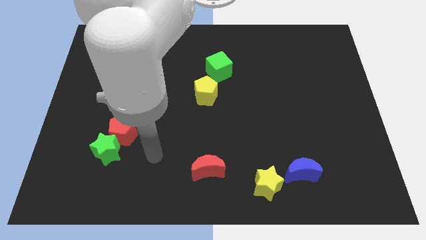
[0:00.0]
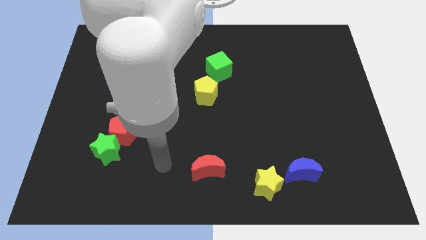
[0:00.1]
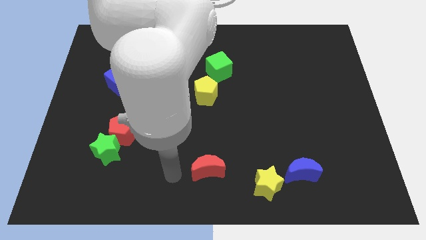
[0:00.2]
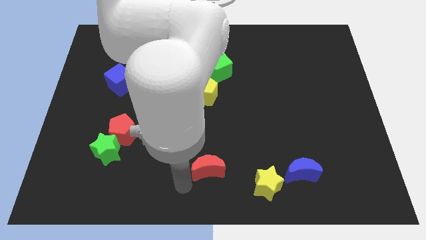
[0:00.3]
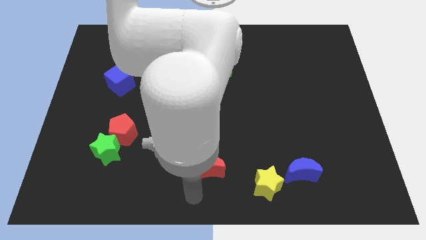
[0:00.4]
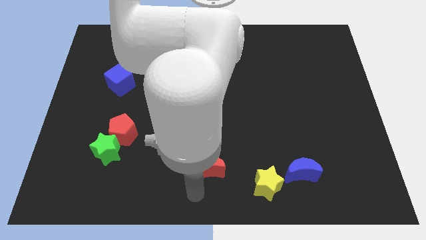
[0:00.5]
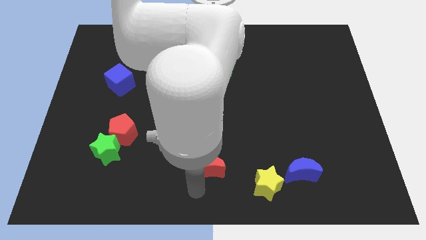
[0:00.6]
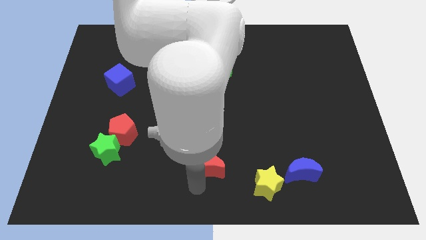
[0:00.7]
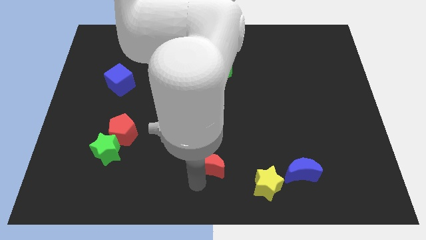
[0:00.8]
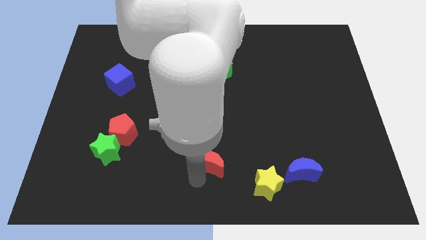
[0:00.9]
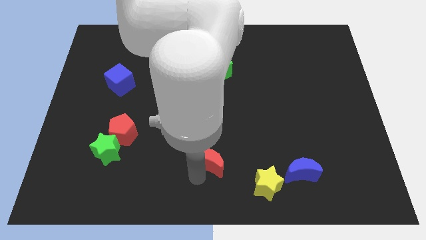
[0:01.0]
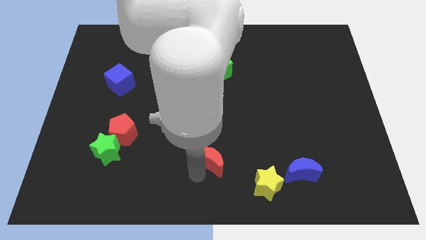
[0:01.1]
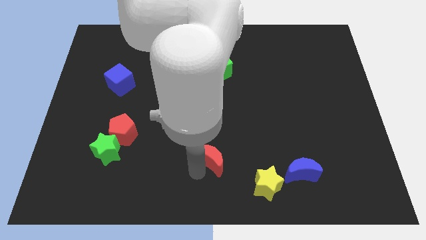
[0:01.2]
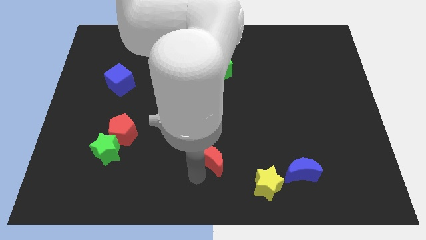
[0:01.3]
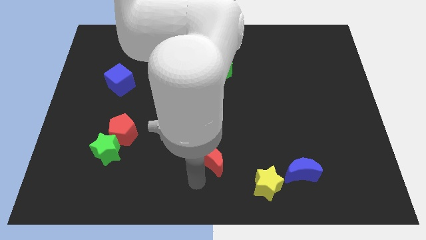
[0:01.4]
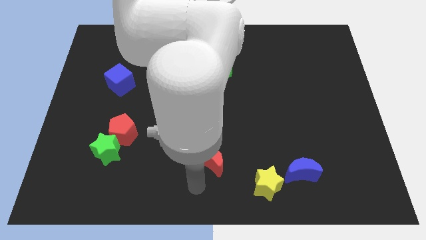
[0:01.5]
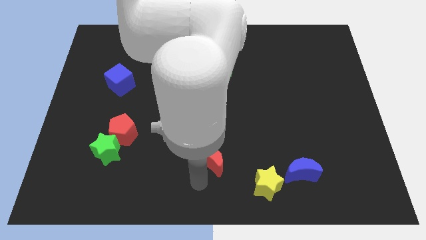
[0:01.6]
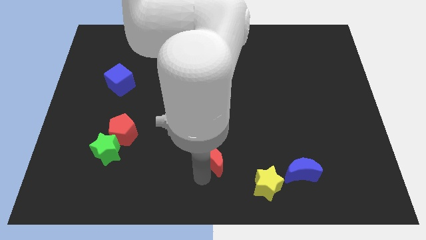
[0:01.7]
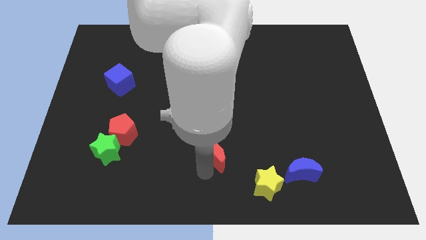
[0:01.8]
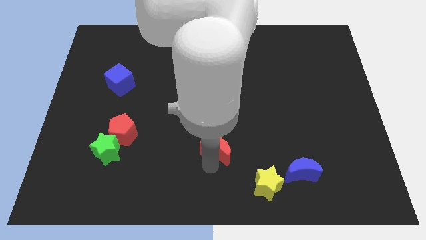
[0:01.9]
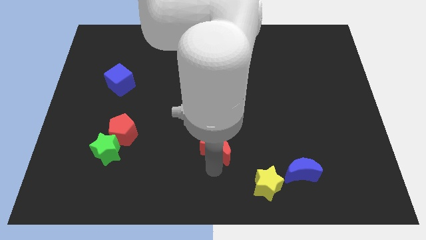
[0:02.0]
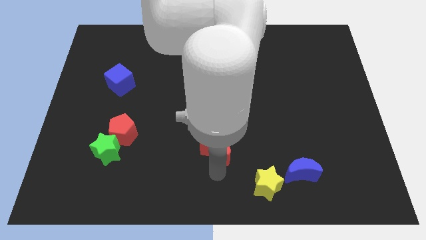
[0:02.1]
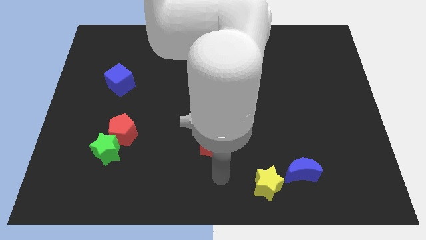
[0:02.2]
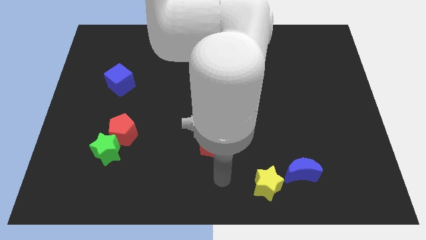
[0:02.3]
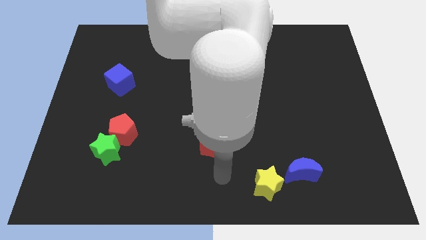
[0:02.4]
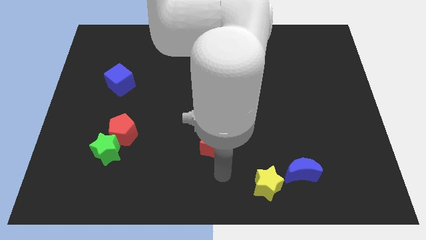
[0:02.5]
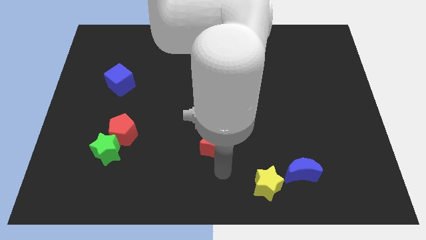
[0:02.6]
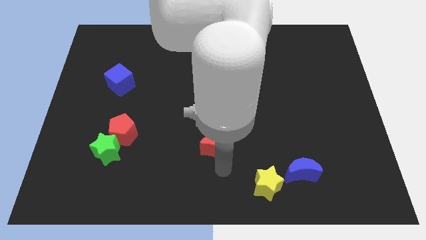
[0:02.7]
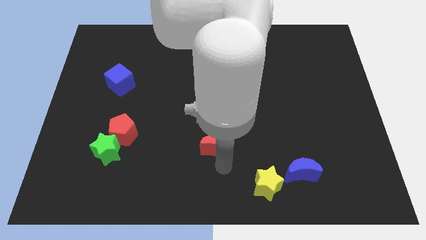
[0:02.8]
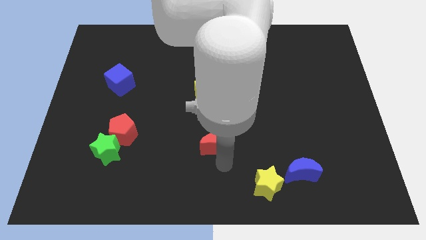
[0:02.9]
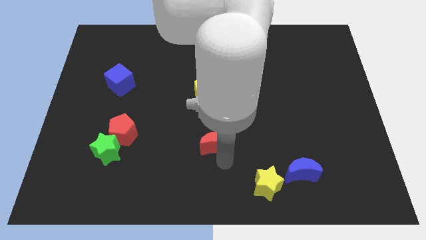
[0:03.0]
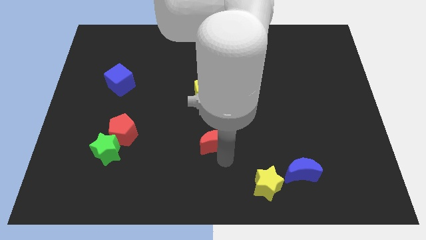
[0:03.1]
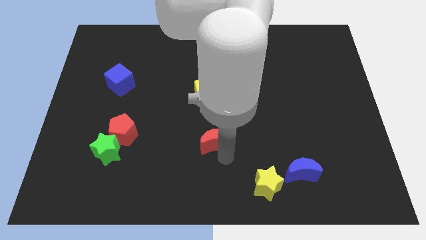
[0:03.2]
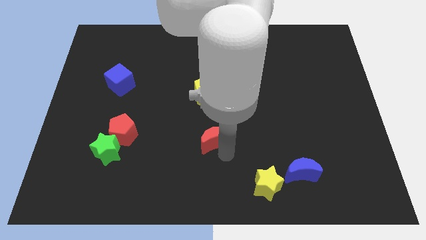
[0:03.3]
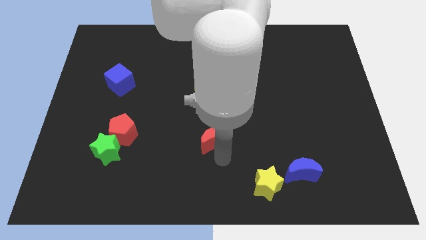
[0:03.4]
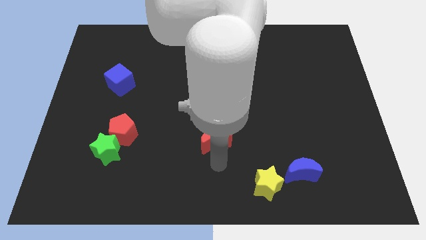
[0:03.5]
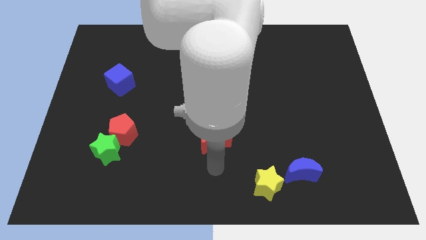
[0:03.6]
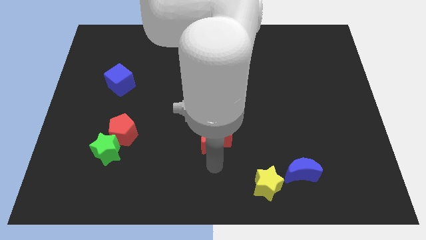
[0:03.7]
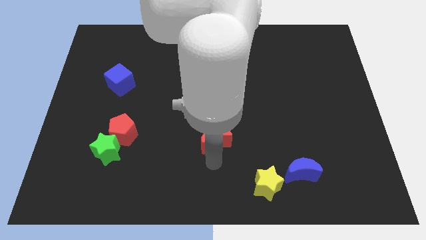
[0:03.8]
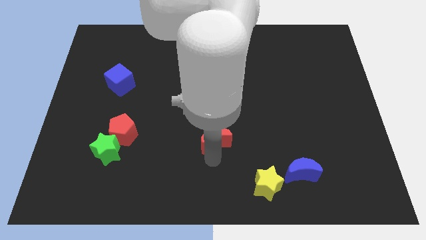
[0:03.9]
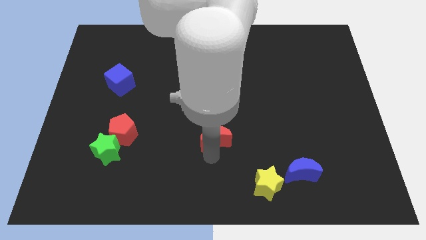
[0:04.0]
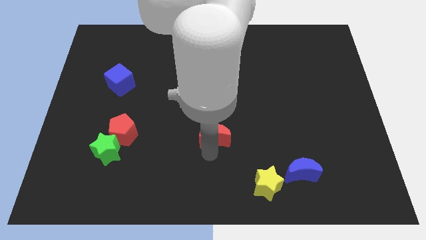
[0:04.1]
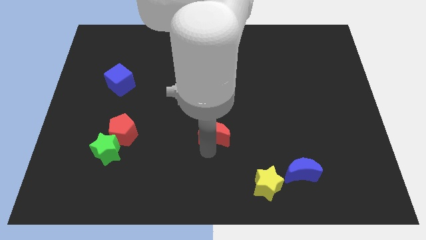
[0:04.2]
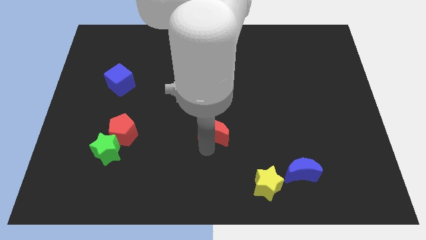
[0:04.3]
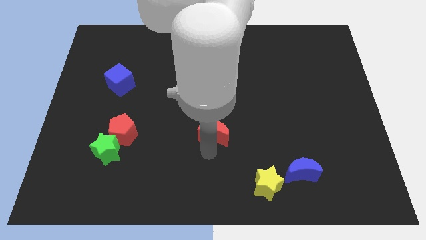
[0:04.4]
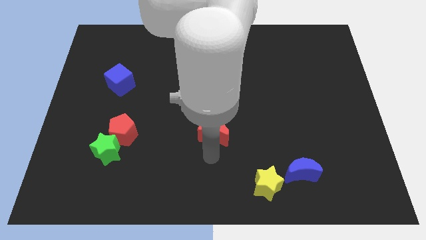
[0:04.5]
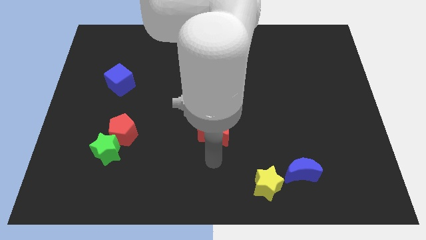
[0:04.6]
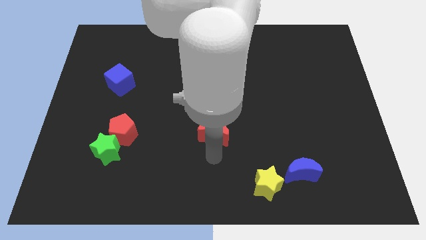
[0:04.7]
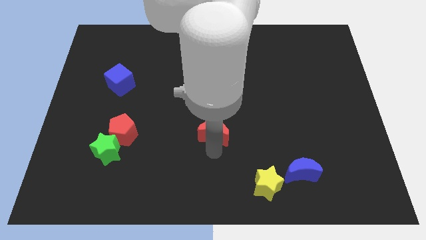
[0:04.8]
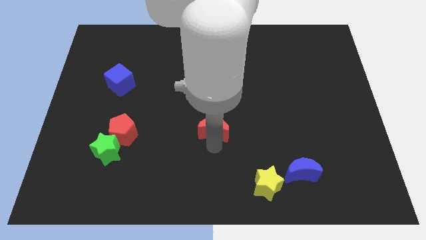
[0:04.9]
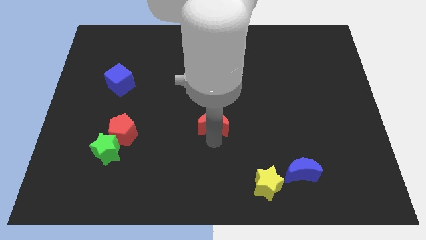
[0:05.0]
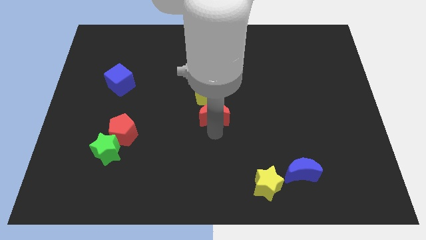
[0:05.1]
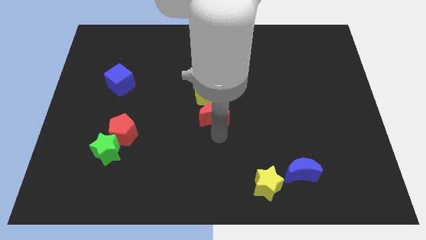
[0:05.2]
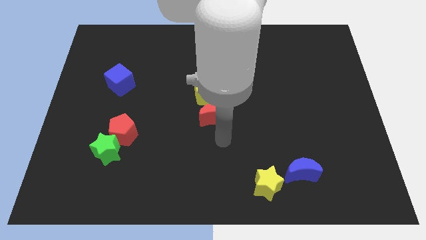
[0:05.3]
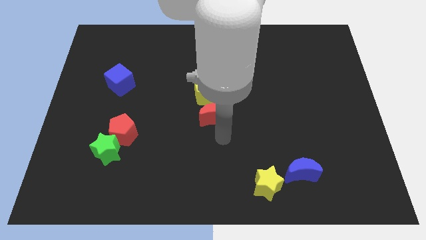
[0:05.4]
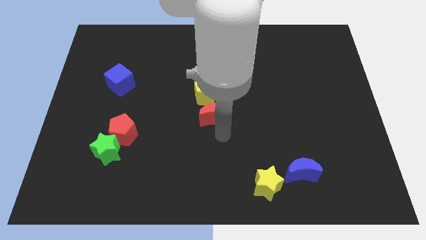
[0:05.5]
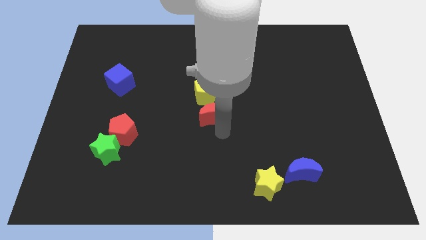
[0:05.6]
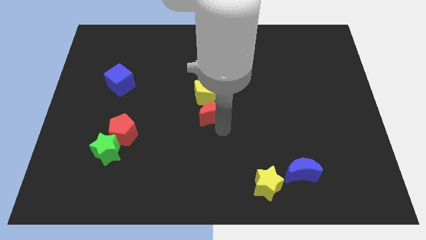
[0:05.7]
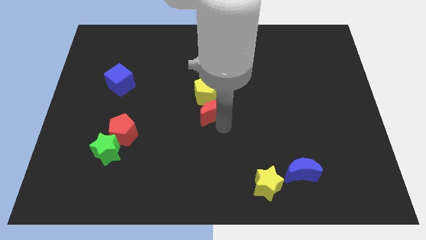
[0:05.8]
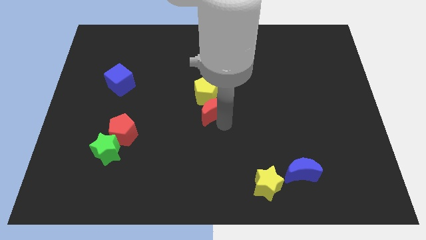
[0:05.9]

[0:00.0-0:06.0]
put the red moon next to the yellow pentagon
